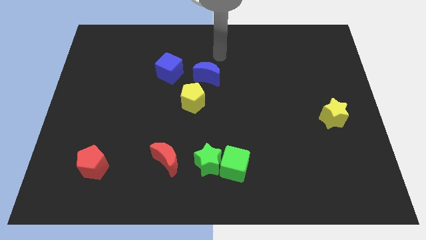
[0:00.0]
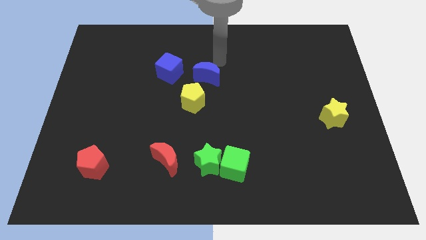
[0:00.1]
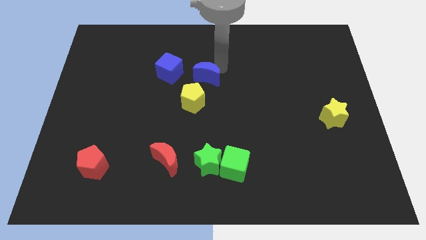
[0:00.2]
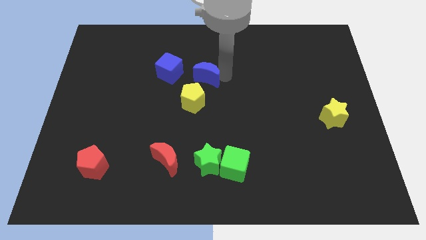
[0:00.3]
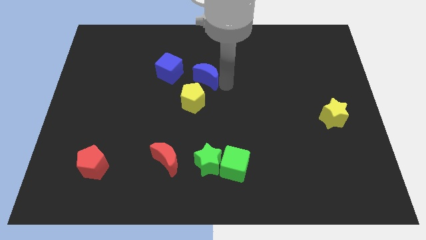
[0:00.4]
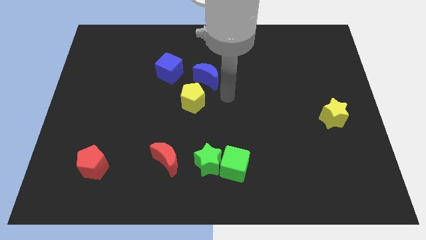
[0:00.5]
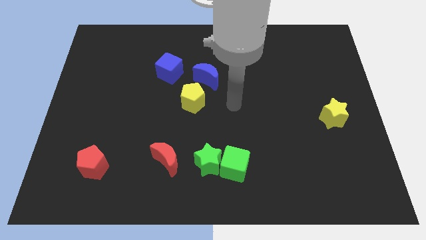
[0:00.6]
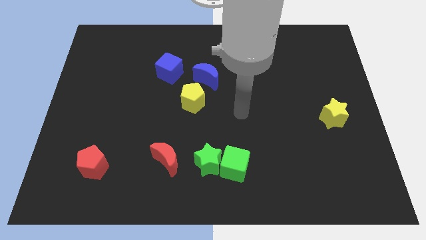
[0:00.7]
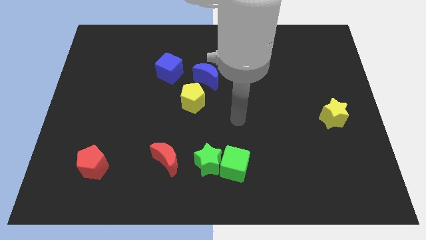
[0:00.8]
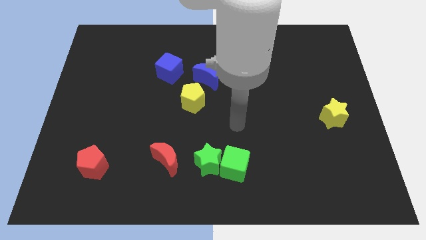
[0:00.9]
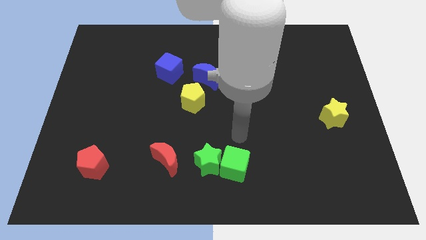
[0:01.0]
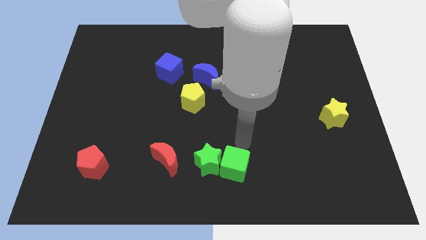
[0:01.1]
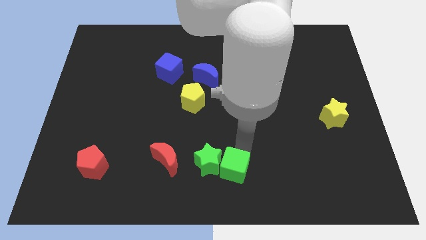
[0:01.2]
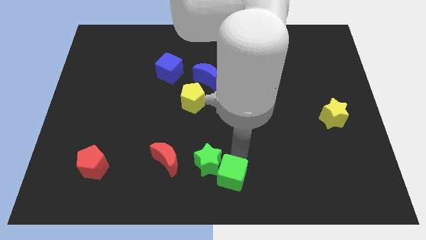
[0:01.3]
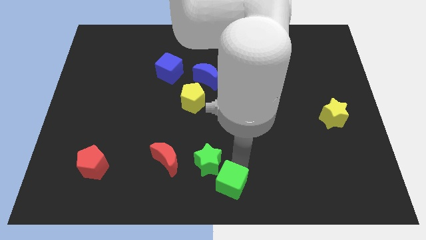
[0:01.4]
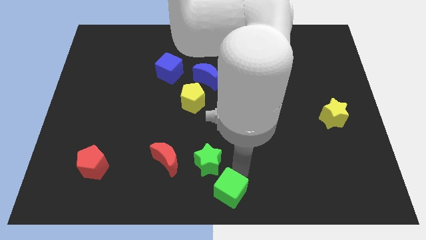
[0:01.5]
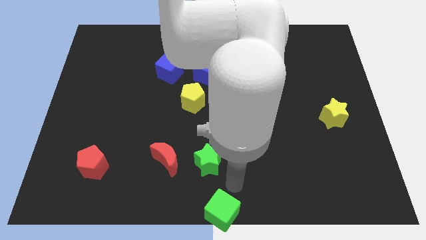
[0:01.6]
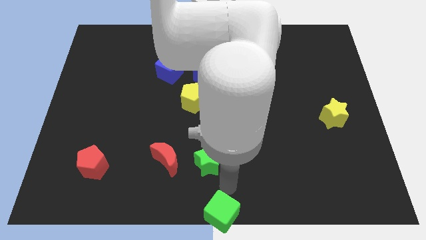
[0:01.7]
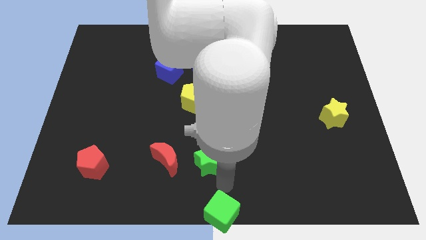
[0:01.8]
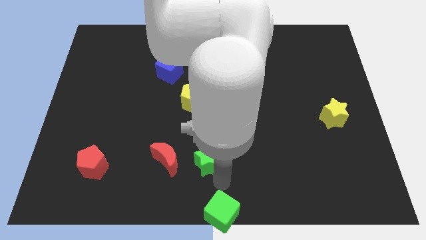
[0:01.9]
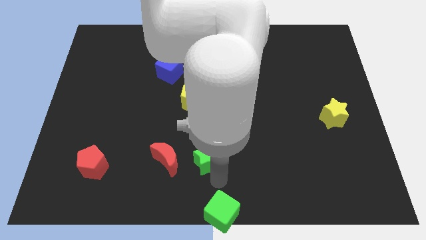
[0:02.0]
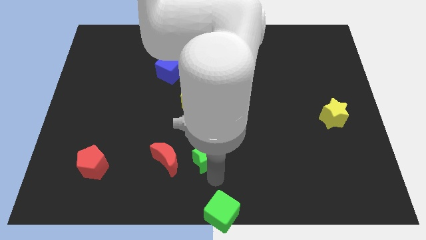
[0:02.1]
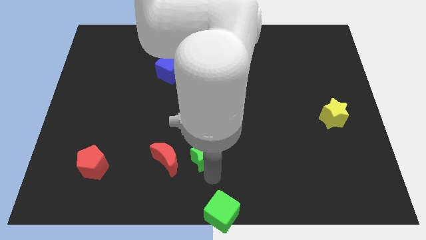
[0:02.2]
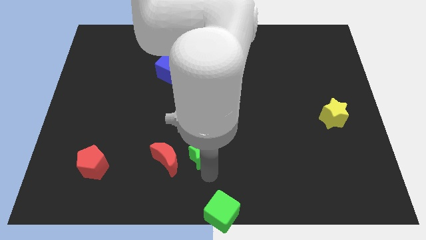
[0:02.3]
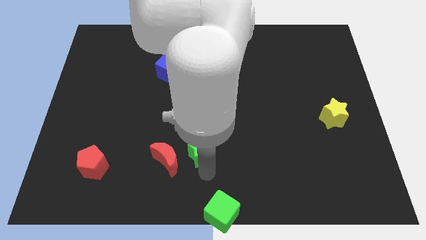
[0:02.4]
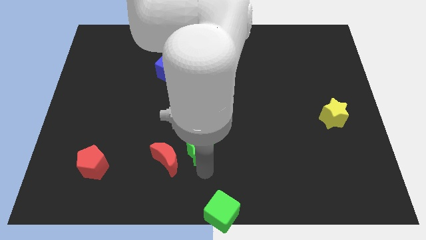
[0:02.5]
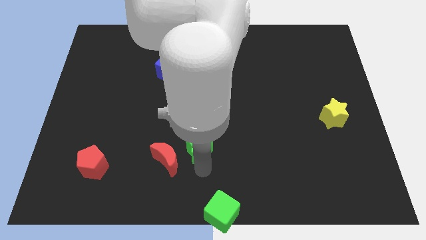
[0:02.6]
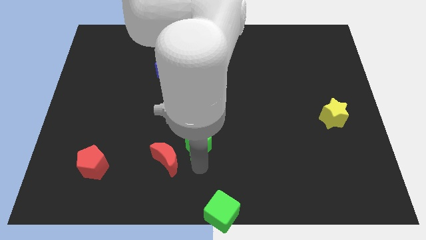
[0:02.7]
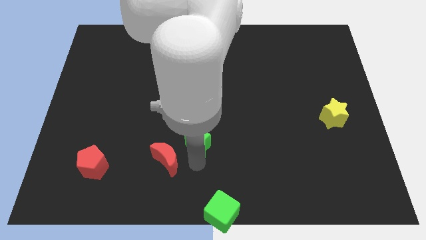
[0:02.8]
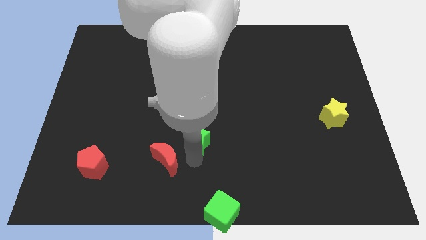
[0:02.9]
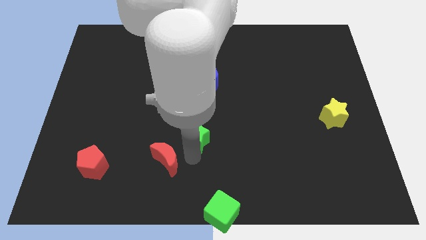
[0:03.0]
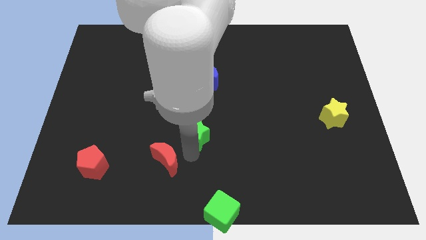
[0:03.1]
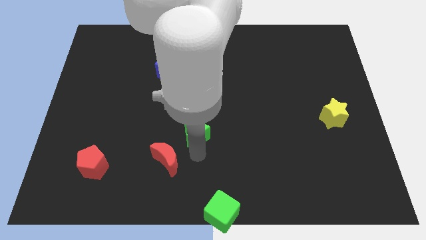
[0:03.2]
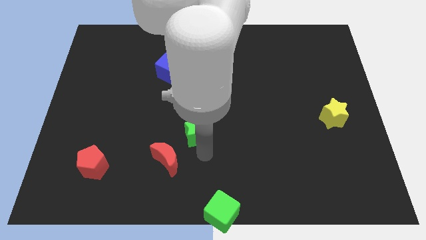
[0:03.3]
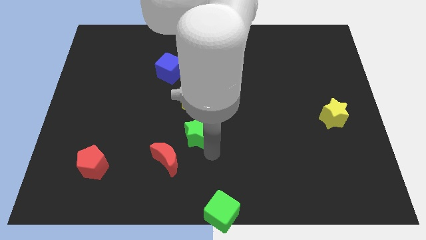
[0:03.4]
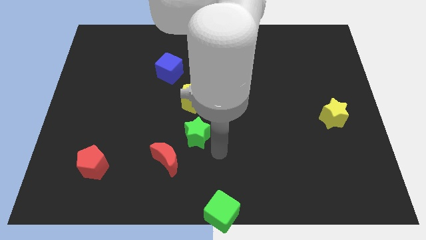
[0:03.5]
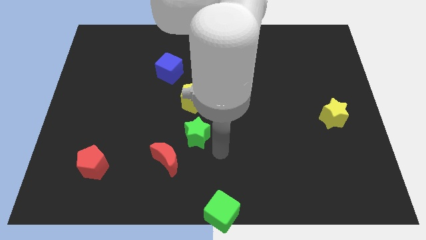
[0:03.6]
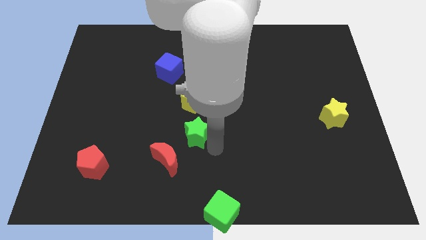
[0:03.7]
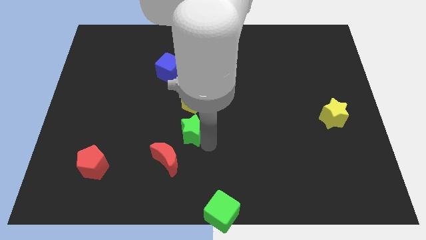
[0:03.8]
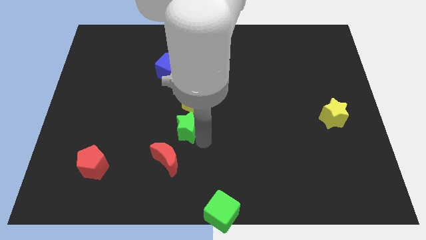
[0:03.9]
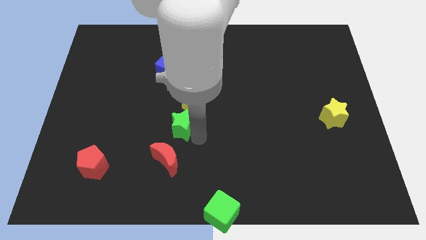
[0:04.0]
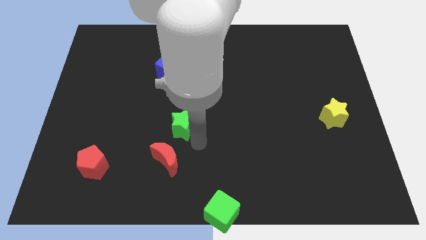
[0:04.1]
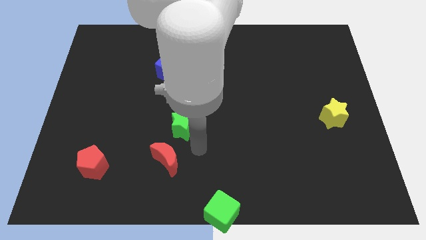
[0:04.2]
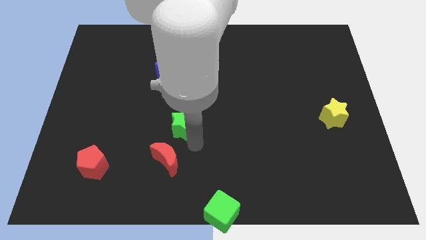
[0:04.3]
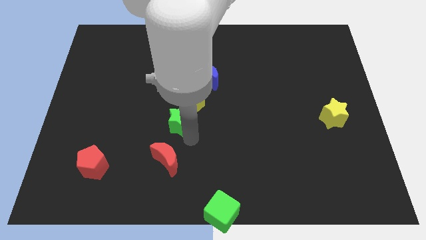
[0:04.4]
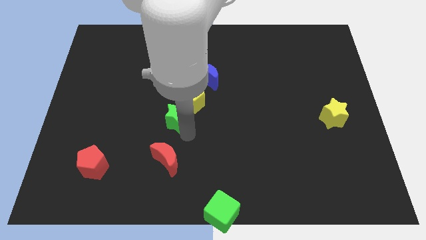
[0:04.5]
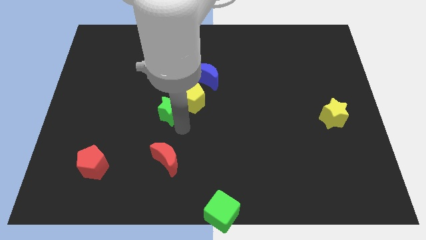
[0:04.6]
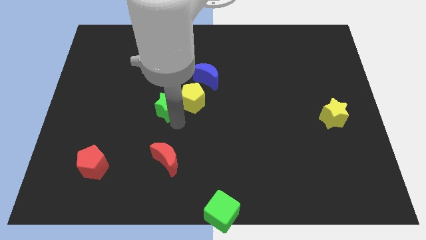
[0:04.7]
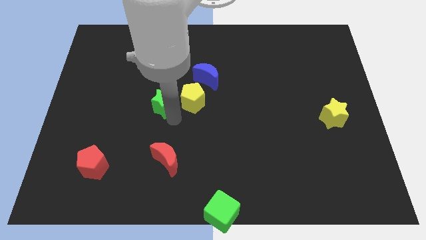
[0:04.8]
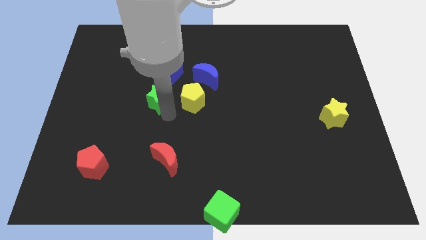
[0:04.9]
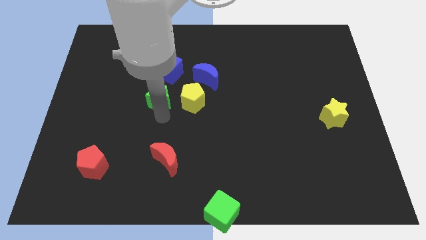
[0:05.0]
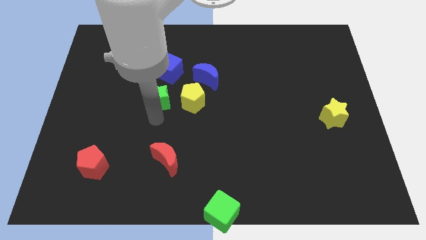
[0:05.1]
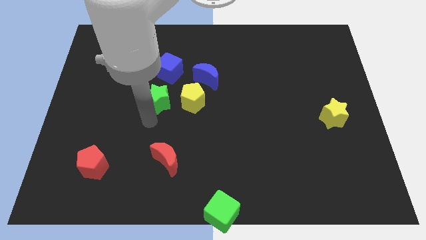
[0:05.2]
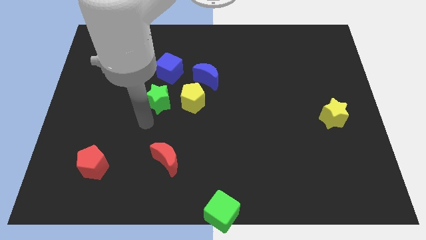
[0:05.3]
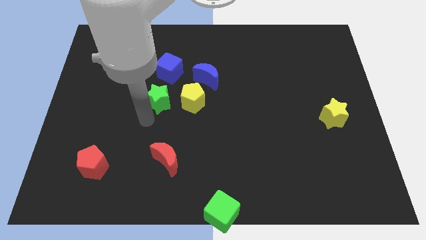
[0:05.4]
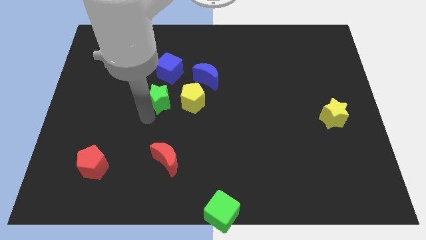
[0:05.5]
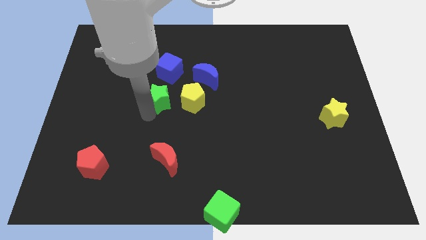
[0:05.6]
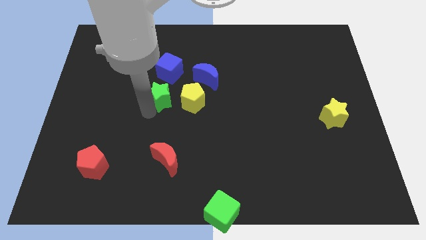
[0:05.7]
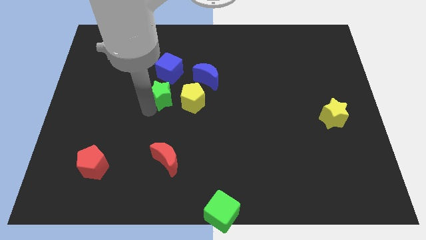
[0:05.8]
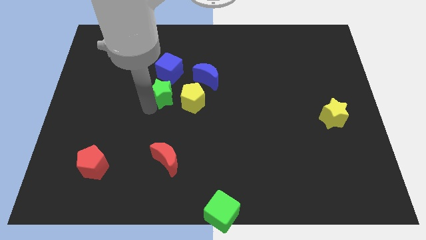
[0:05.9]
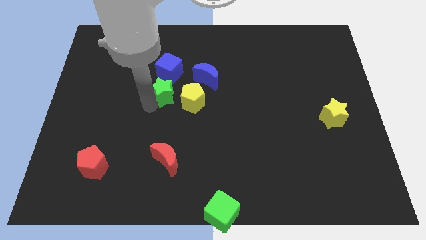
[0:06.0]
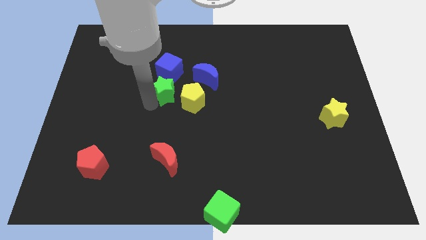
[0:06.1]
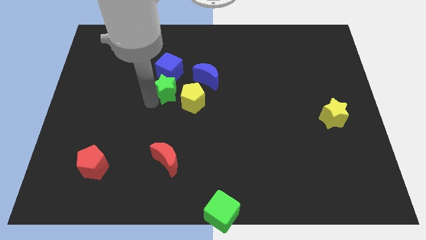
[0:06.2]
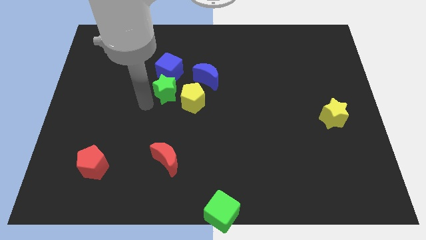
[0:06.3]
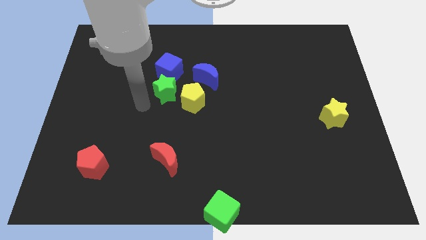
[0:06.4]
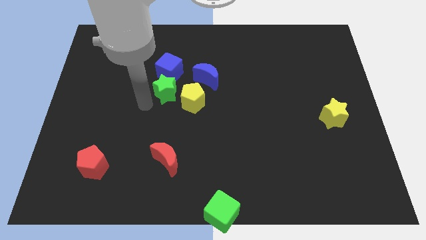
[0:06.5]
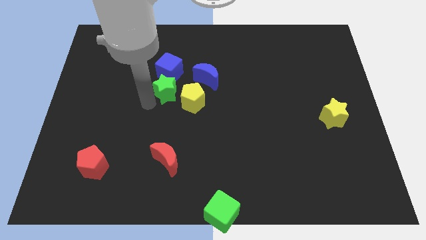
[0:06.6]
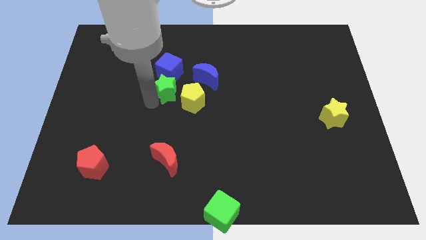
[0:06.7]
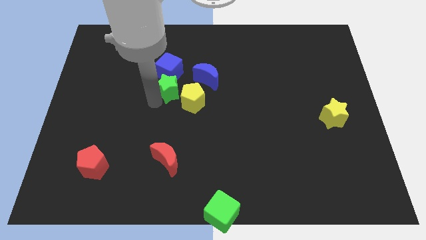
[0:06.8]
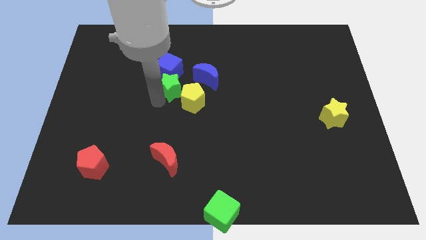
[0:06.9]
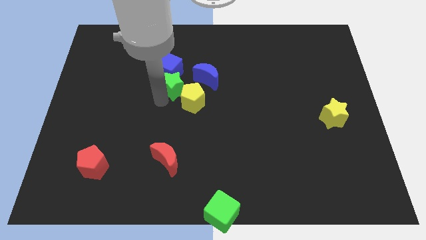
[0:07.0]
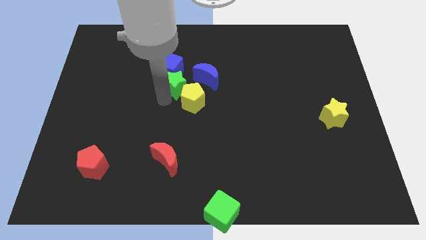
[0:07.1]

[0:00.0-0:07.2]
move the green star to the top of the yellow pentagon
